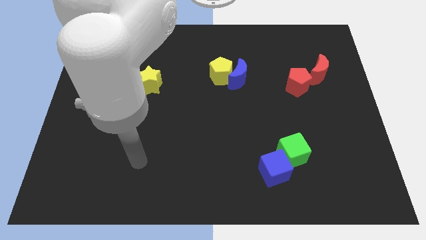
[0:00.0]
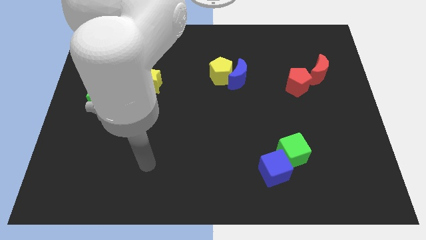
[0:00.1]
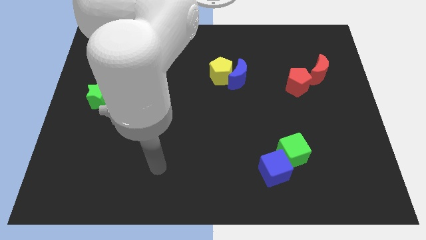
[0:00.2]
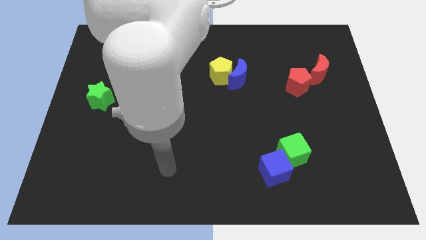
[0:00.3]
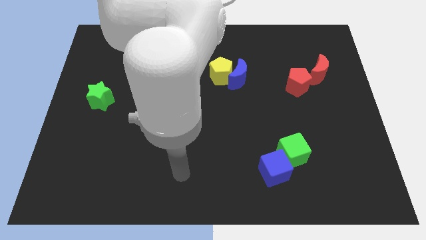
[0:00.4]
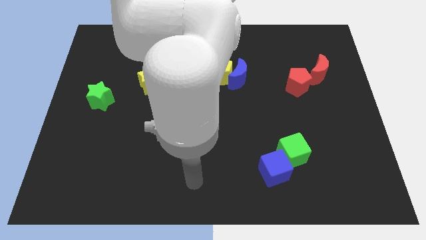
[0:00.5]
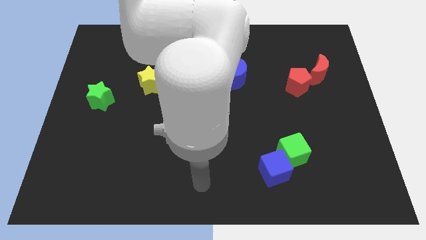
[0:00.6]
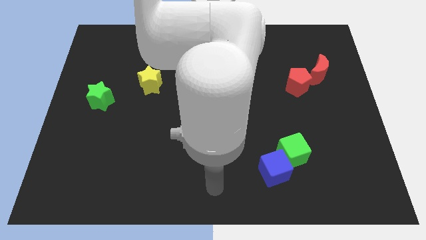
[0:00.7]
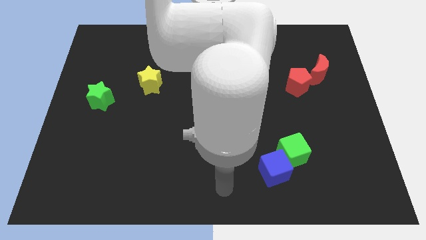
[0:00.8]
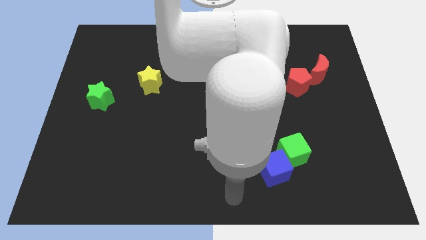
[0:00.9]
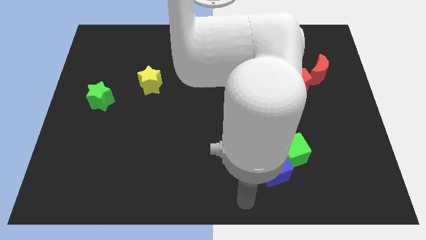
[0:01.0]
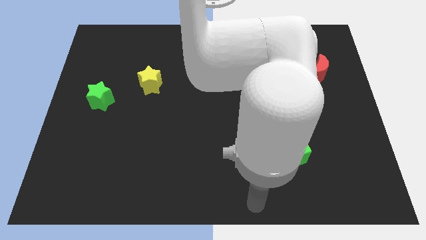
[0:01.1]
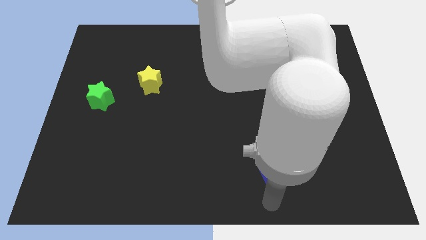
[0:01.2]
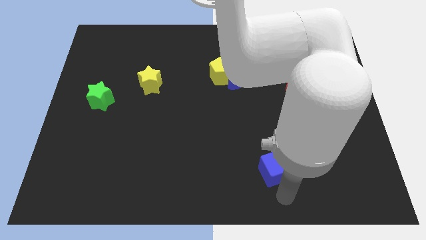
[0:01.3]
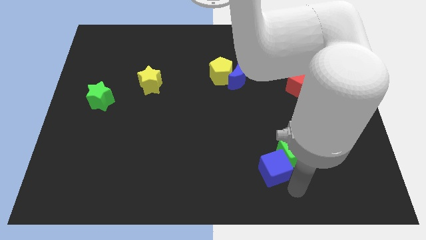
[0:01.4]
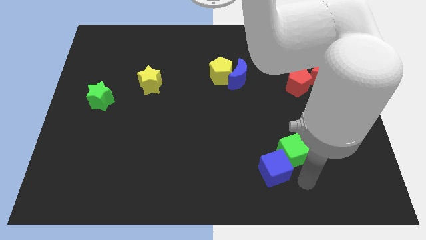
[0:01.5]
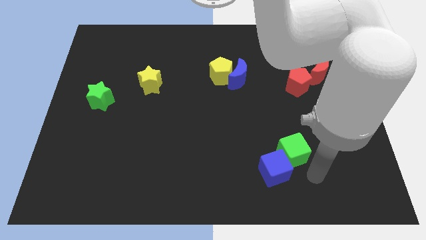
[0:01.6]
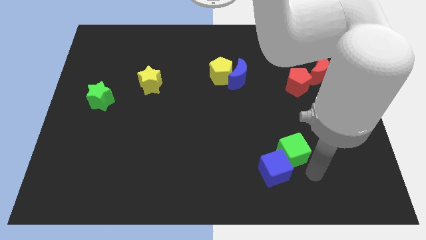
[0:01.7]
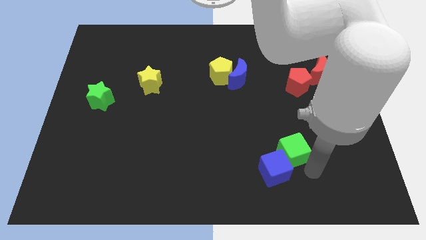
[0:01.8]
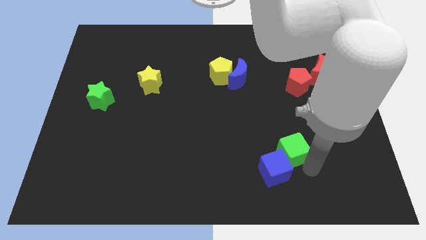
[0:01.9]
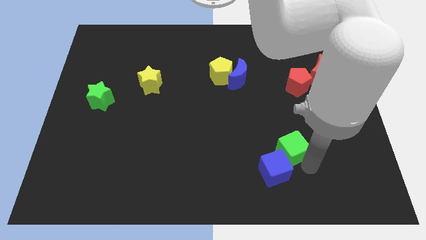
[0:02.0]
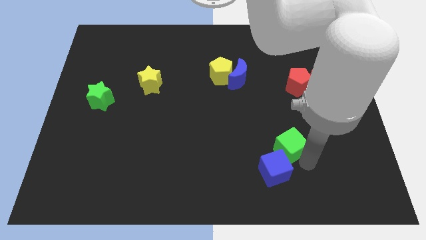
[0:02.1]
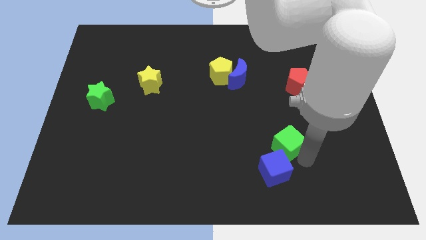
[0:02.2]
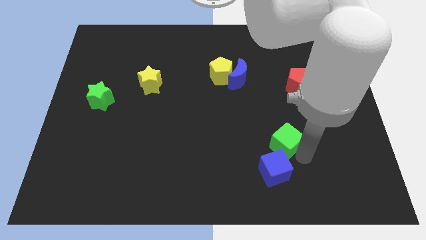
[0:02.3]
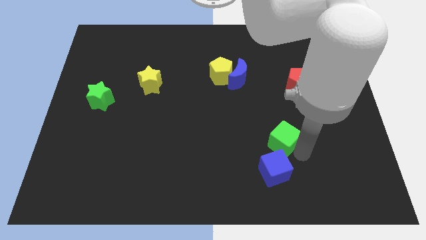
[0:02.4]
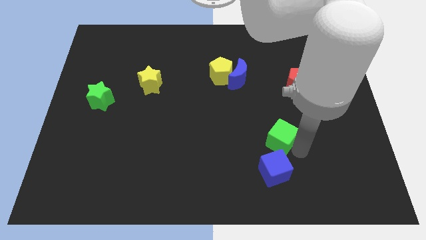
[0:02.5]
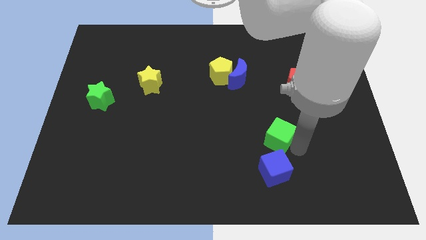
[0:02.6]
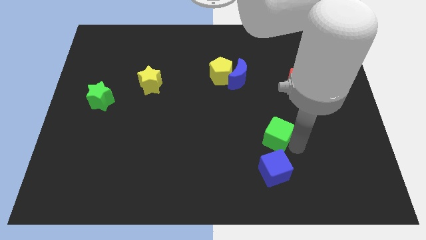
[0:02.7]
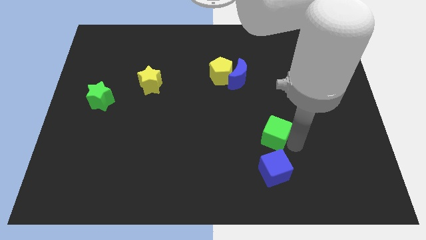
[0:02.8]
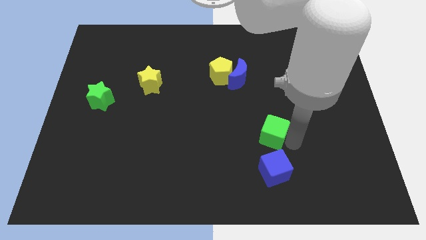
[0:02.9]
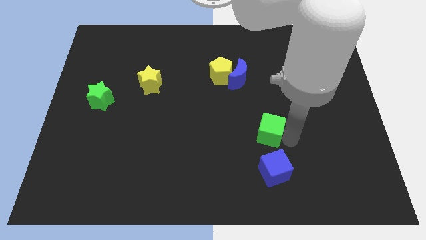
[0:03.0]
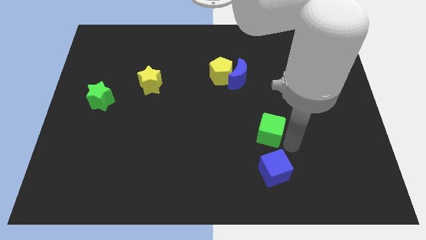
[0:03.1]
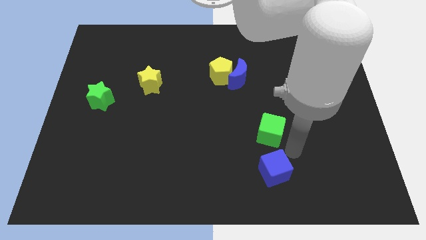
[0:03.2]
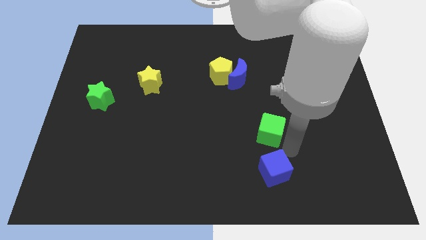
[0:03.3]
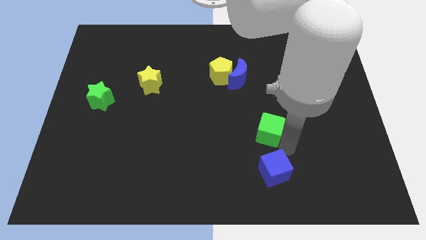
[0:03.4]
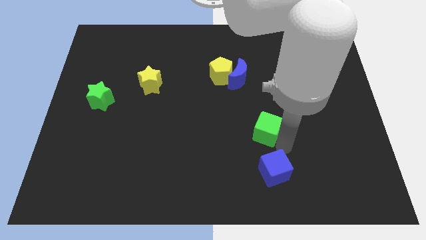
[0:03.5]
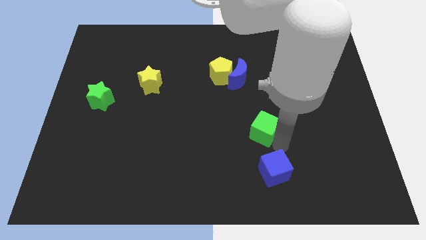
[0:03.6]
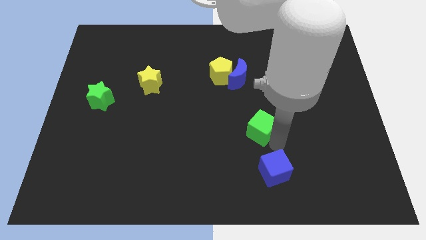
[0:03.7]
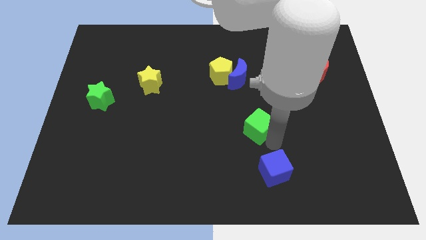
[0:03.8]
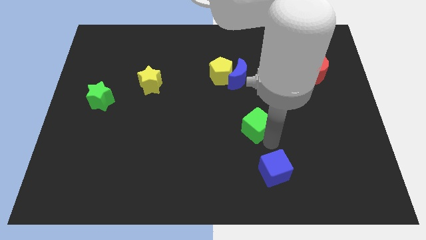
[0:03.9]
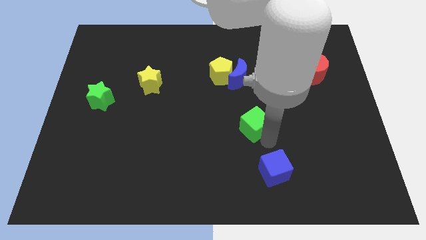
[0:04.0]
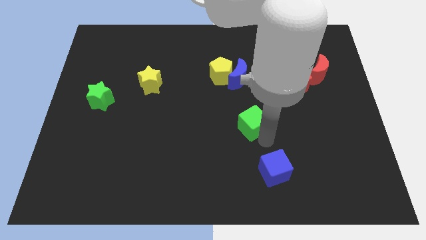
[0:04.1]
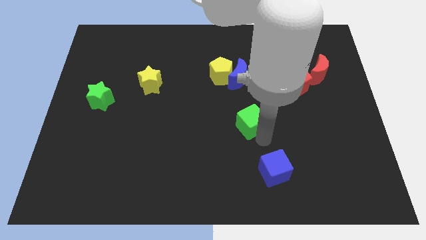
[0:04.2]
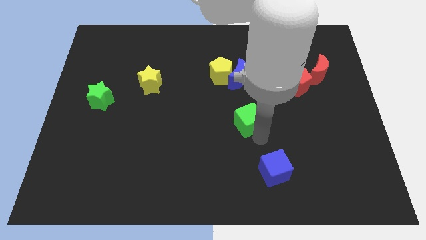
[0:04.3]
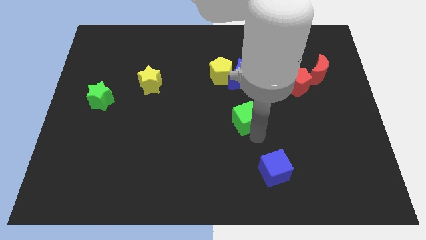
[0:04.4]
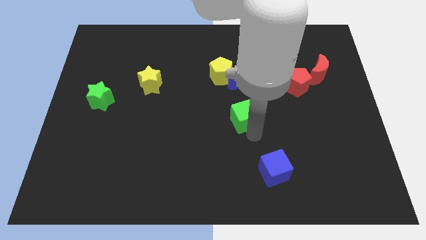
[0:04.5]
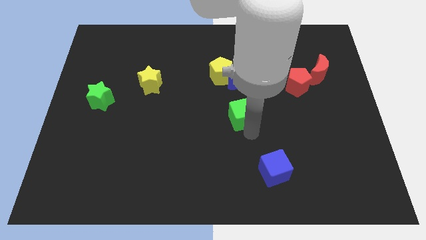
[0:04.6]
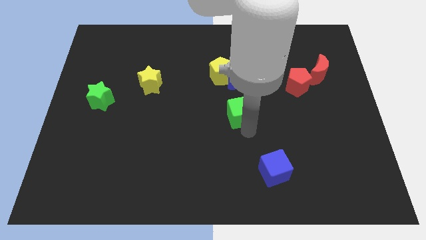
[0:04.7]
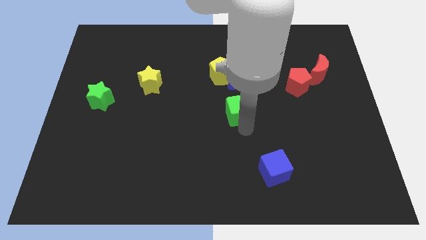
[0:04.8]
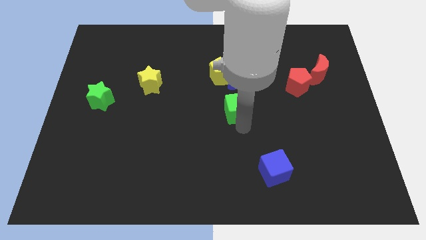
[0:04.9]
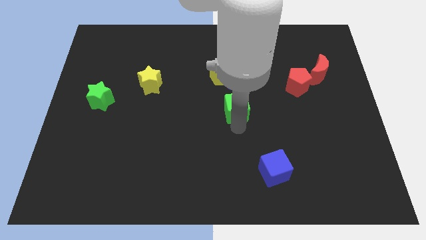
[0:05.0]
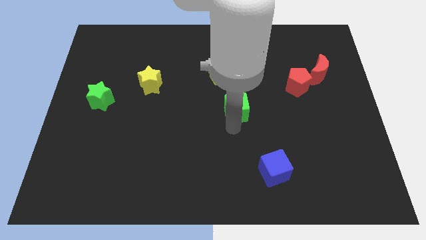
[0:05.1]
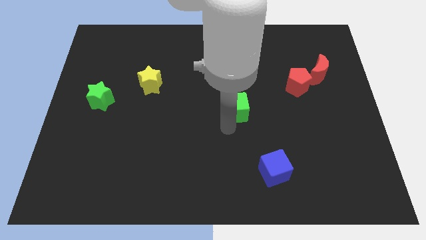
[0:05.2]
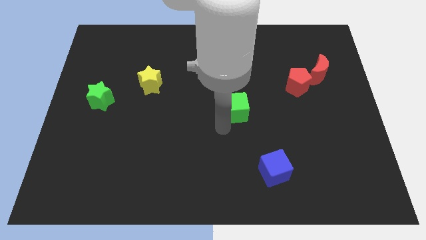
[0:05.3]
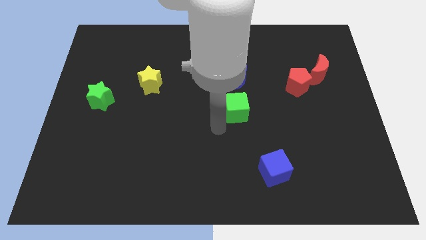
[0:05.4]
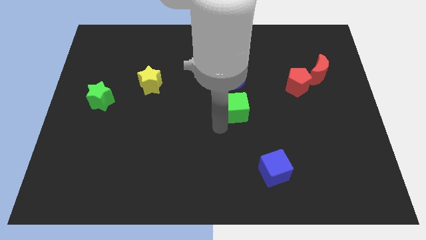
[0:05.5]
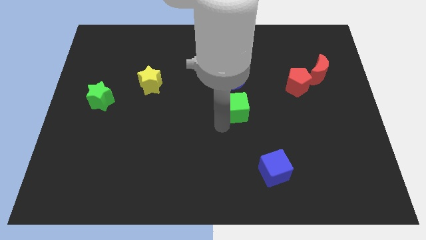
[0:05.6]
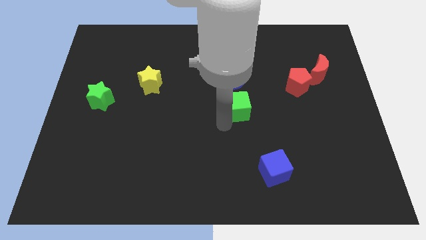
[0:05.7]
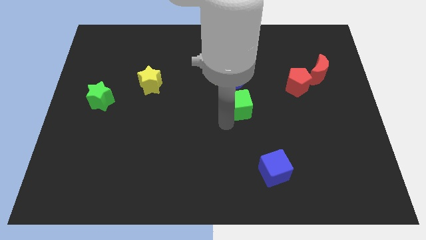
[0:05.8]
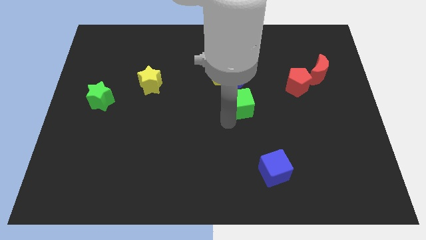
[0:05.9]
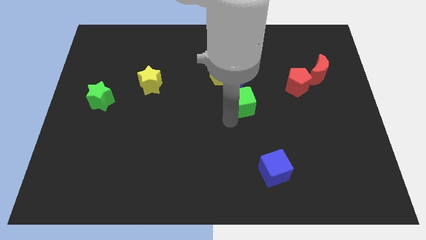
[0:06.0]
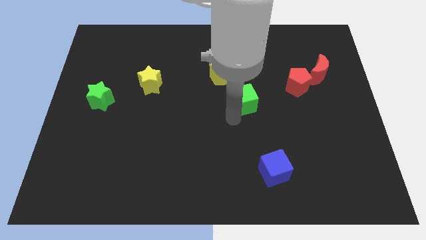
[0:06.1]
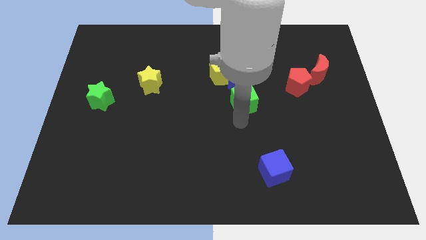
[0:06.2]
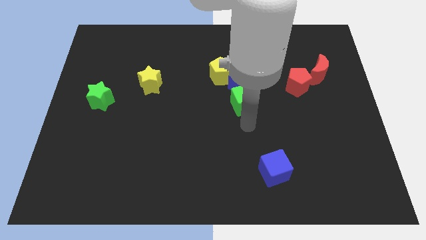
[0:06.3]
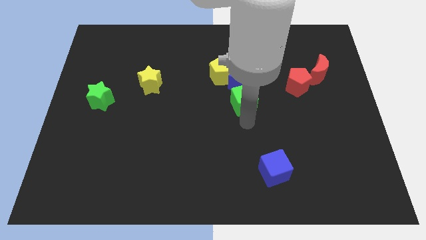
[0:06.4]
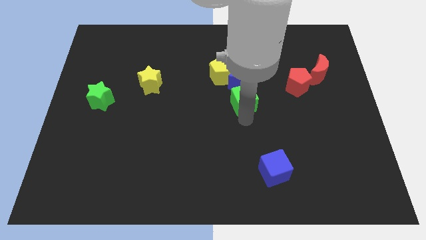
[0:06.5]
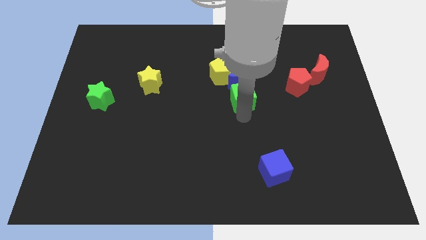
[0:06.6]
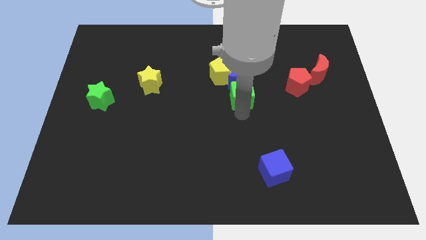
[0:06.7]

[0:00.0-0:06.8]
move the green cube towards the blue moon

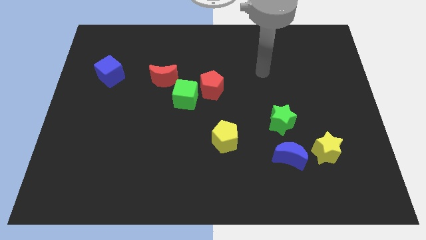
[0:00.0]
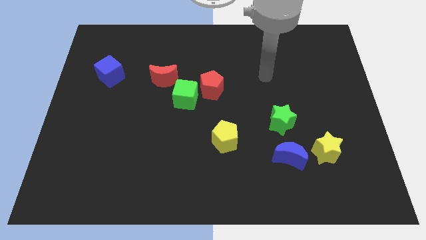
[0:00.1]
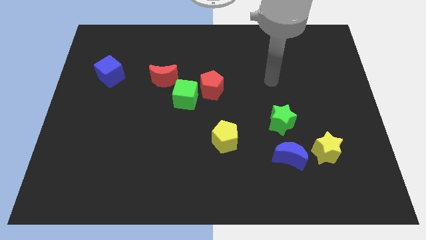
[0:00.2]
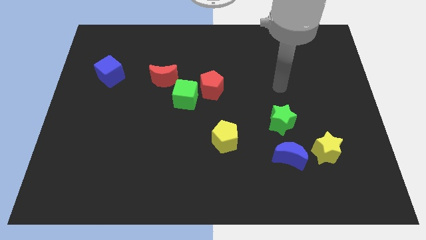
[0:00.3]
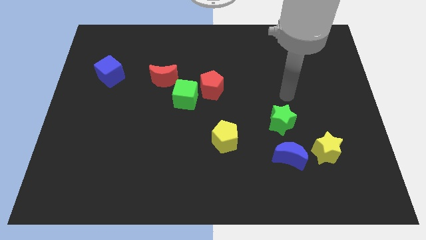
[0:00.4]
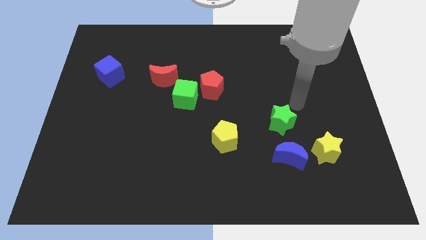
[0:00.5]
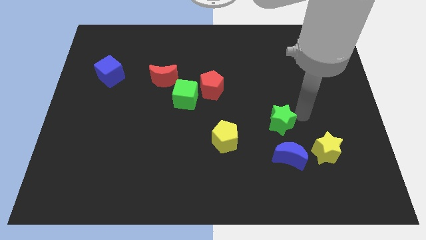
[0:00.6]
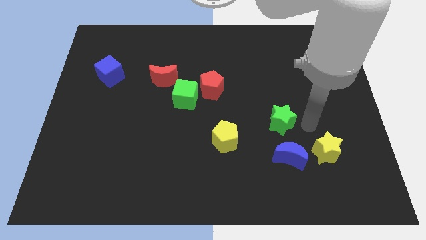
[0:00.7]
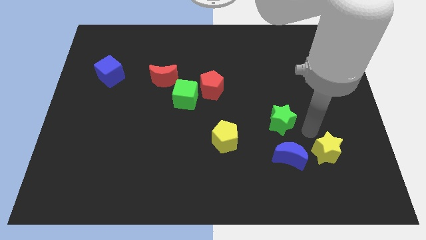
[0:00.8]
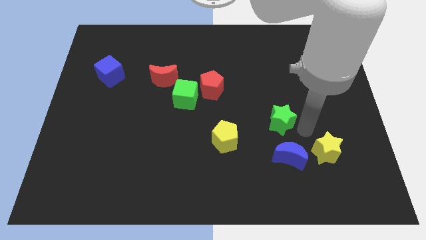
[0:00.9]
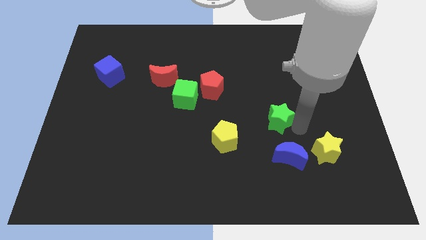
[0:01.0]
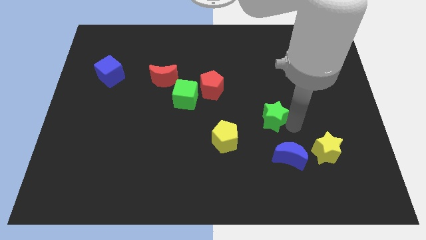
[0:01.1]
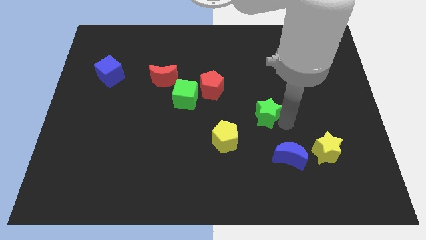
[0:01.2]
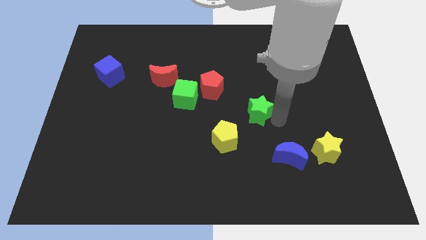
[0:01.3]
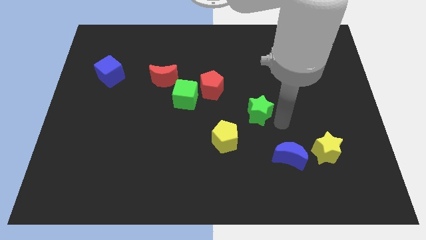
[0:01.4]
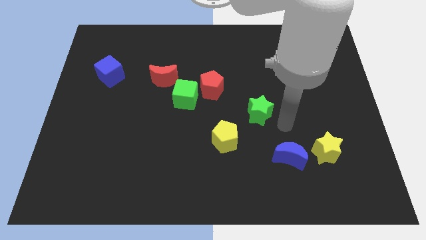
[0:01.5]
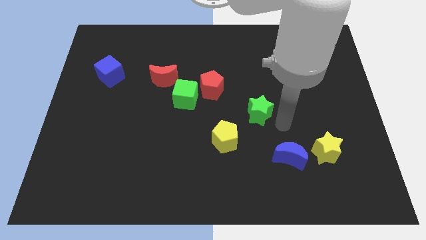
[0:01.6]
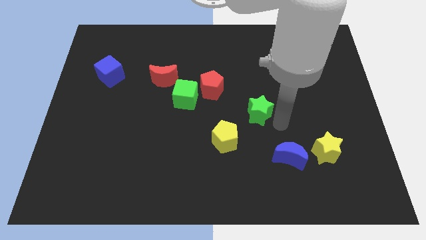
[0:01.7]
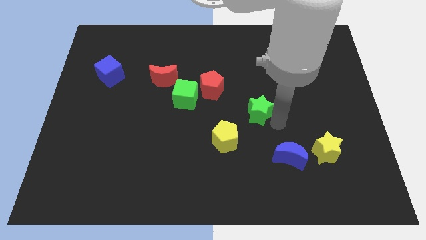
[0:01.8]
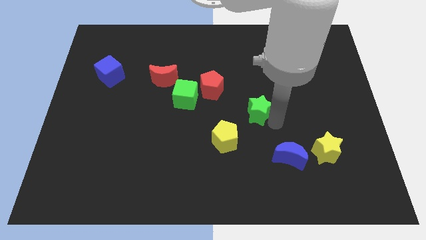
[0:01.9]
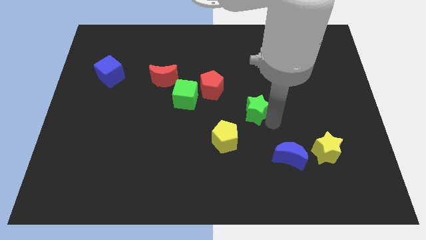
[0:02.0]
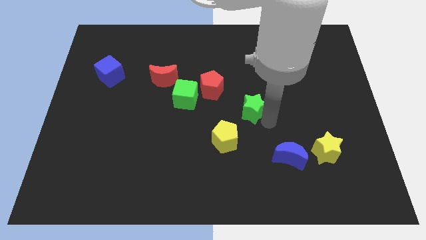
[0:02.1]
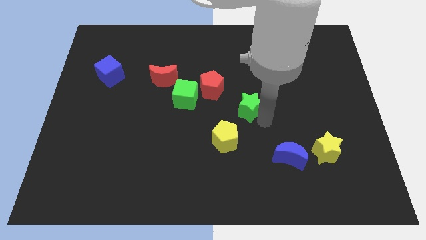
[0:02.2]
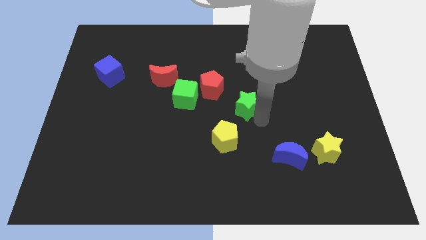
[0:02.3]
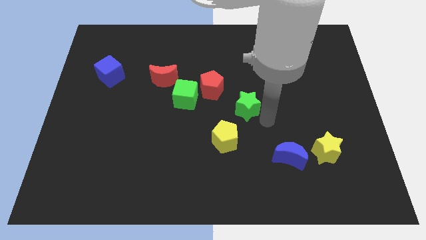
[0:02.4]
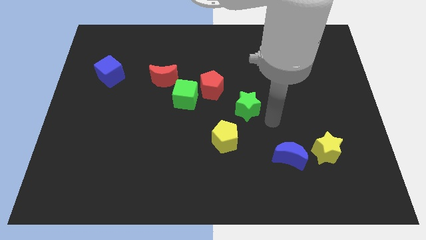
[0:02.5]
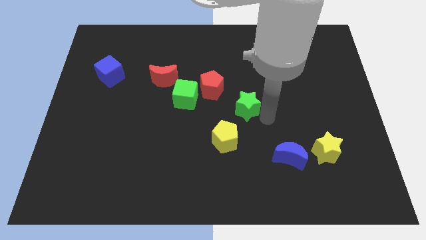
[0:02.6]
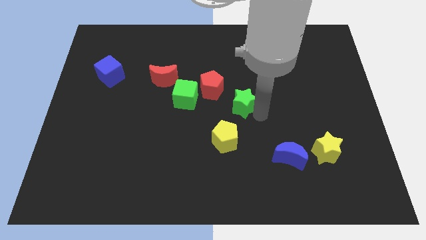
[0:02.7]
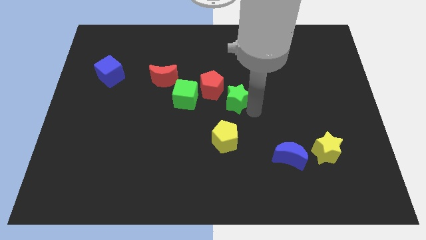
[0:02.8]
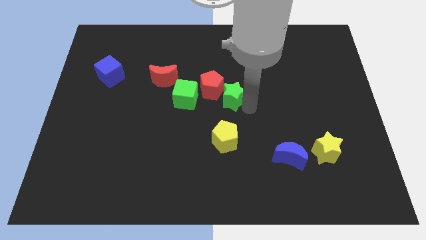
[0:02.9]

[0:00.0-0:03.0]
push the green star to the red pentagon
